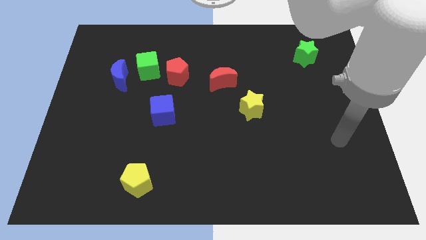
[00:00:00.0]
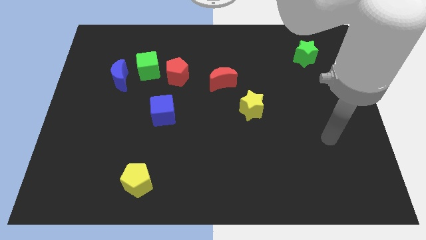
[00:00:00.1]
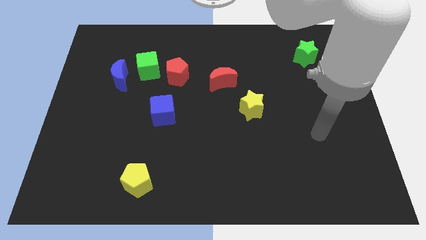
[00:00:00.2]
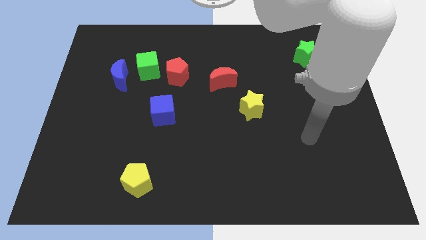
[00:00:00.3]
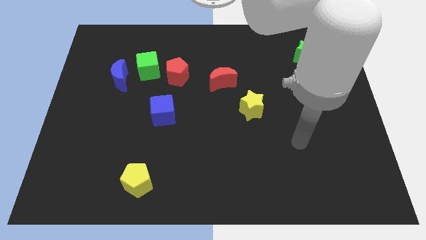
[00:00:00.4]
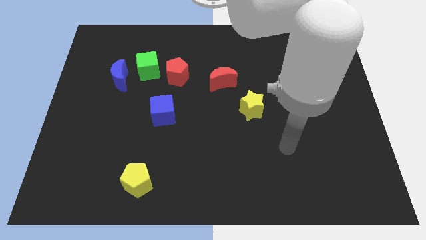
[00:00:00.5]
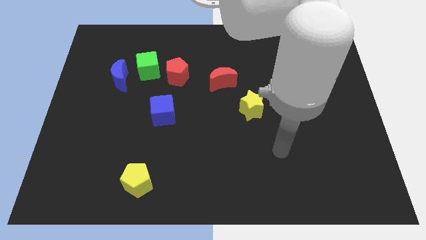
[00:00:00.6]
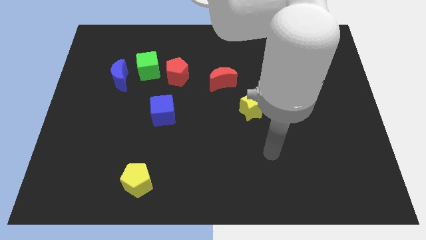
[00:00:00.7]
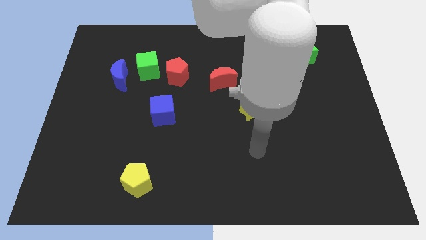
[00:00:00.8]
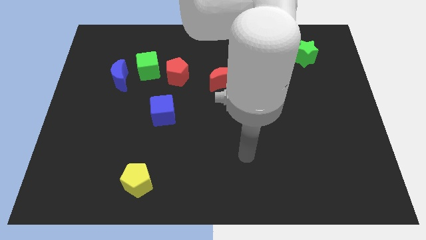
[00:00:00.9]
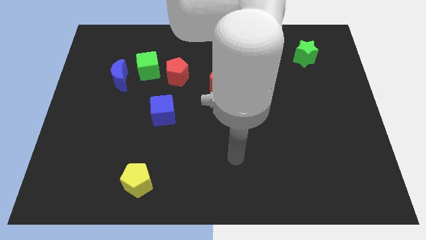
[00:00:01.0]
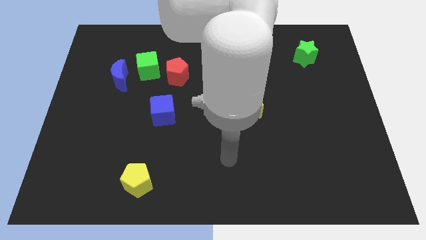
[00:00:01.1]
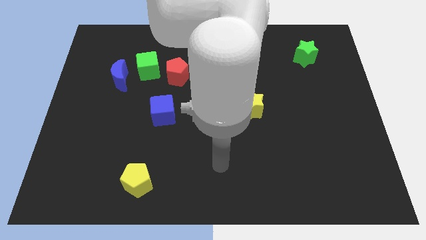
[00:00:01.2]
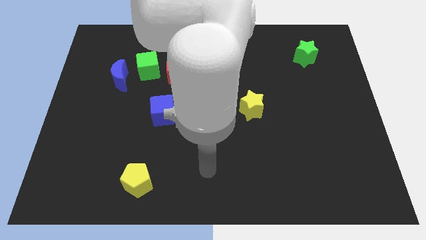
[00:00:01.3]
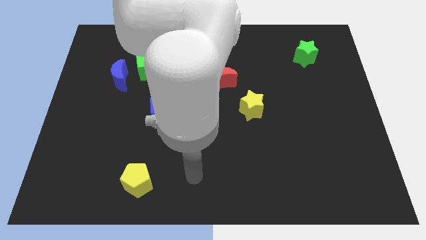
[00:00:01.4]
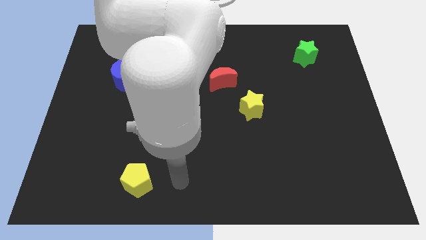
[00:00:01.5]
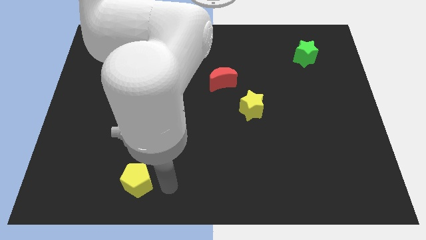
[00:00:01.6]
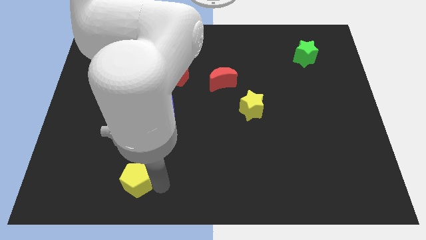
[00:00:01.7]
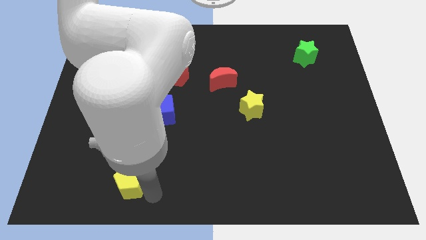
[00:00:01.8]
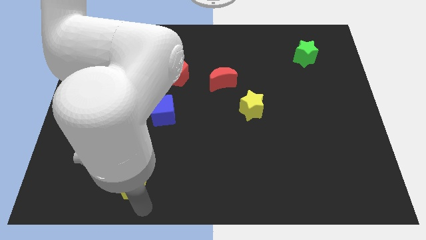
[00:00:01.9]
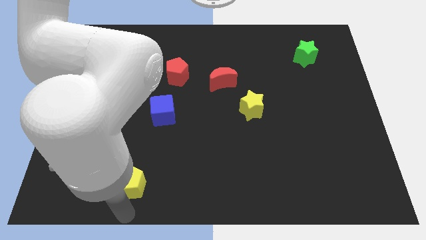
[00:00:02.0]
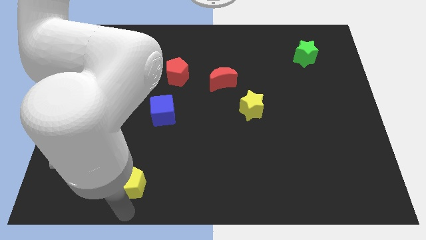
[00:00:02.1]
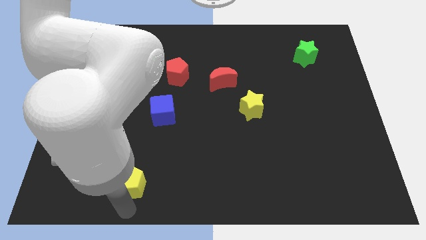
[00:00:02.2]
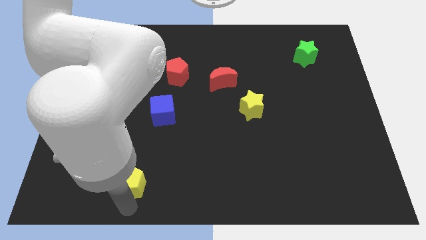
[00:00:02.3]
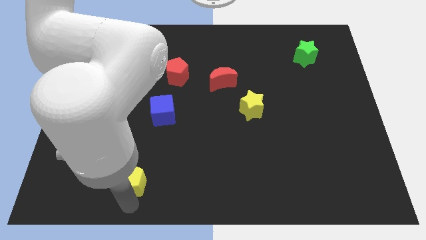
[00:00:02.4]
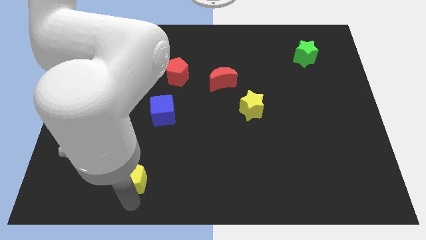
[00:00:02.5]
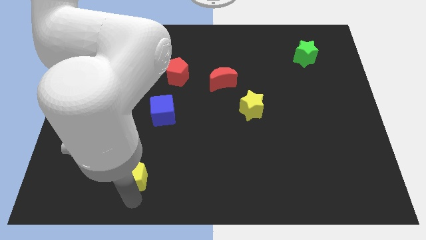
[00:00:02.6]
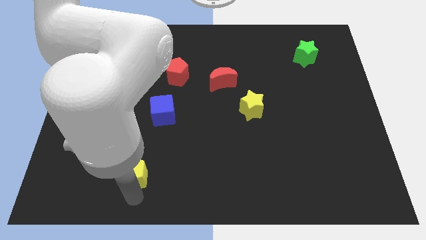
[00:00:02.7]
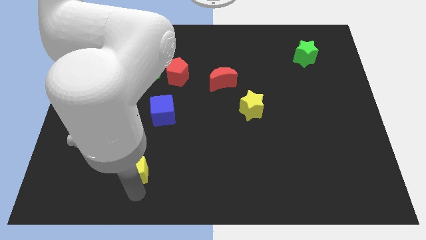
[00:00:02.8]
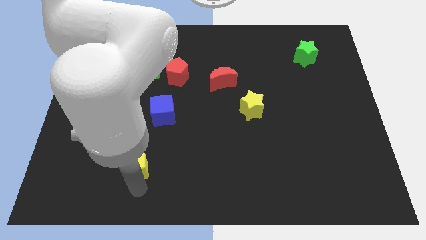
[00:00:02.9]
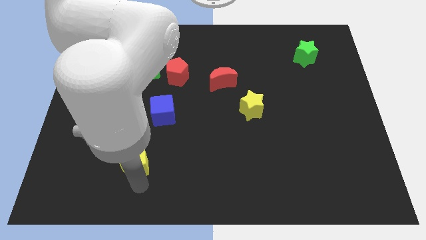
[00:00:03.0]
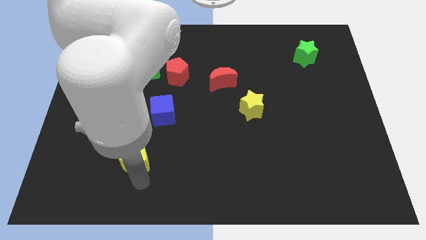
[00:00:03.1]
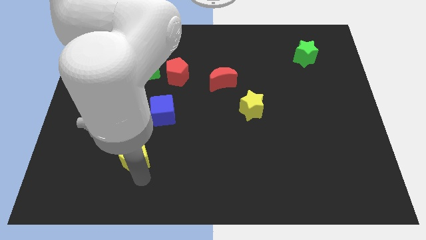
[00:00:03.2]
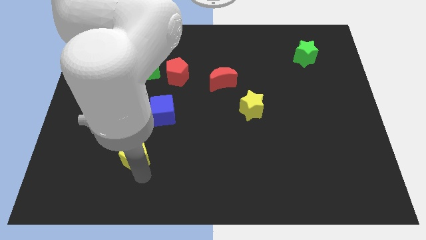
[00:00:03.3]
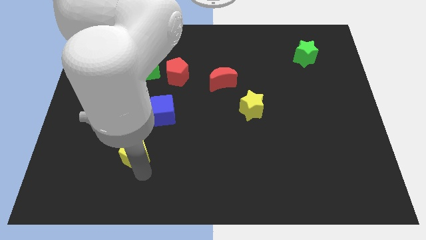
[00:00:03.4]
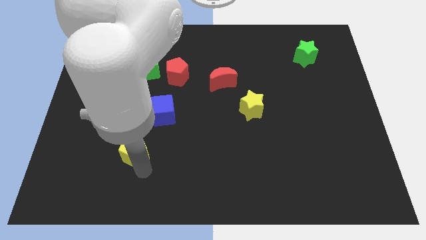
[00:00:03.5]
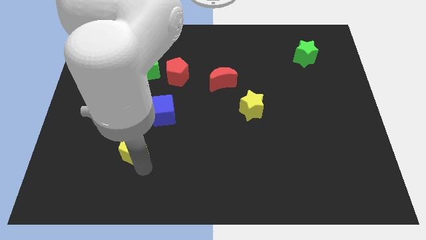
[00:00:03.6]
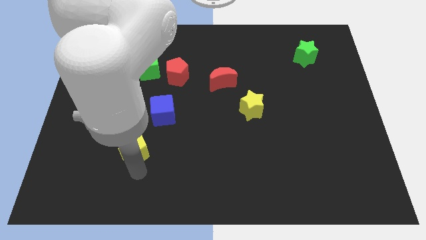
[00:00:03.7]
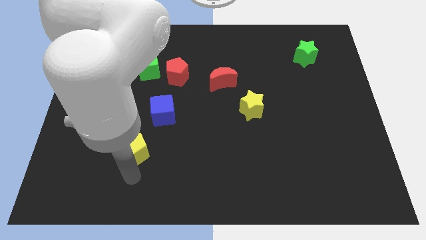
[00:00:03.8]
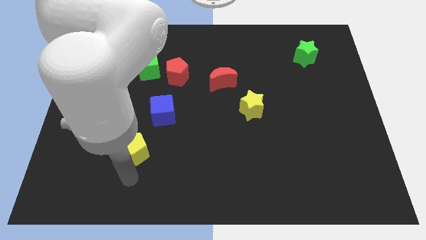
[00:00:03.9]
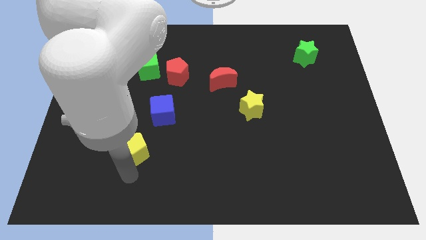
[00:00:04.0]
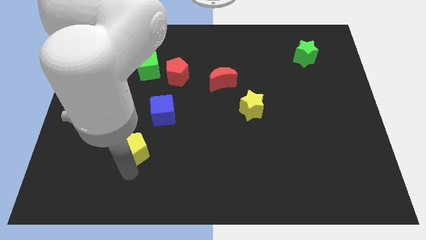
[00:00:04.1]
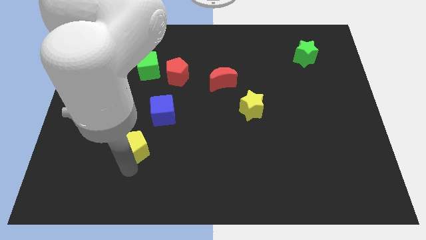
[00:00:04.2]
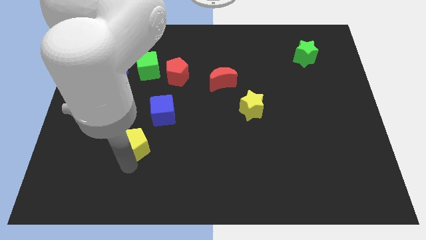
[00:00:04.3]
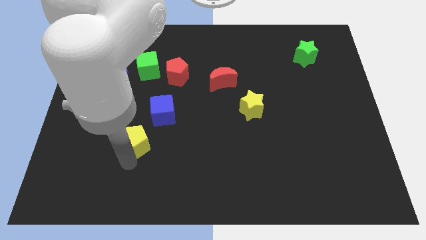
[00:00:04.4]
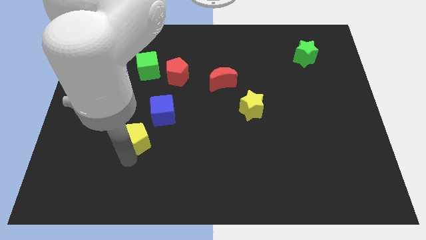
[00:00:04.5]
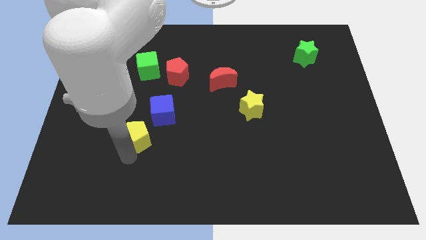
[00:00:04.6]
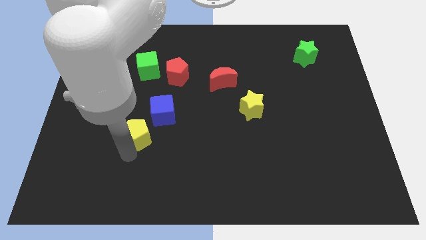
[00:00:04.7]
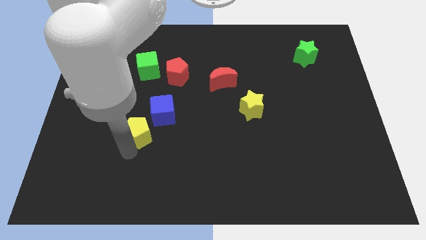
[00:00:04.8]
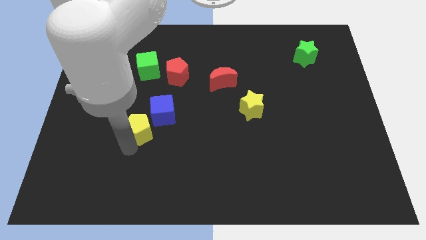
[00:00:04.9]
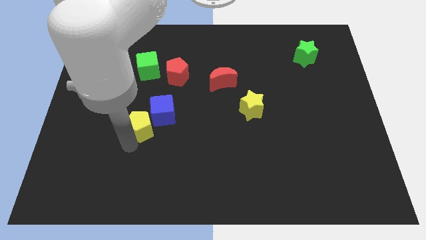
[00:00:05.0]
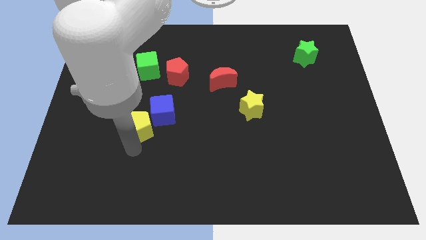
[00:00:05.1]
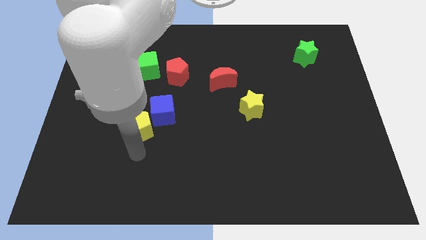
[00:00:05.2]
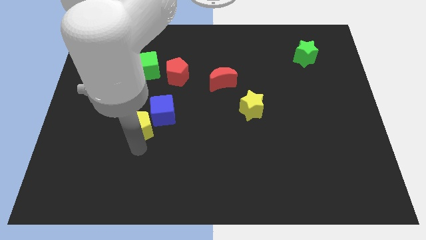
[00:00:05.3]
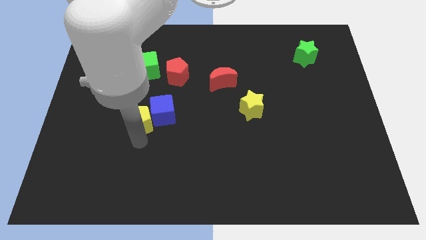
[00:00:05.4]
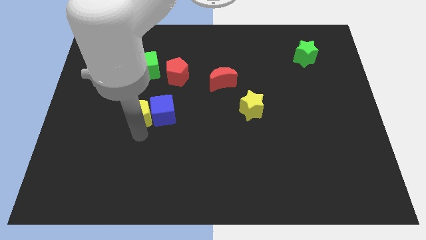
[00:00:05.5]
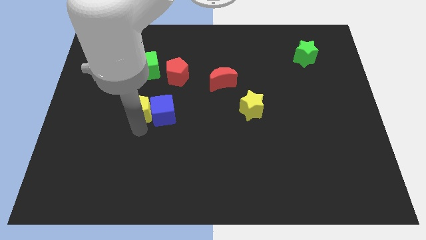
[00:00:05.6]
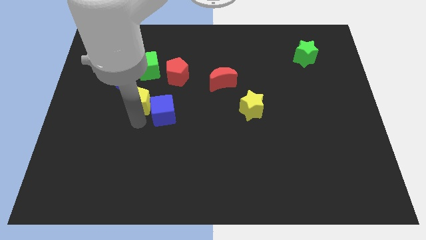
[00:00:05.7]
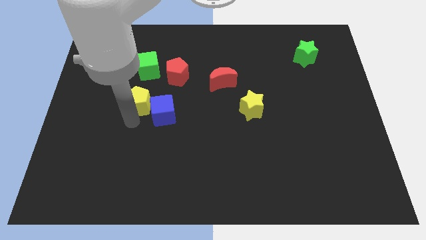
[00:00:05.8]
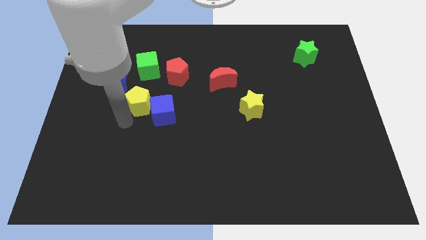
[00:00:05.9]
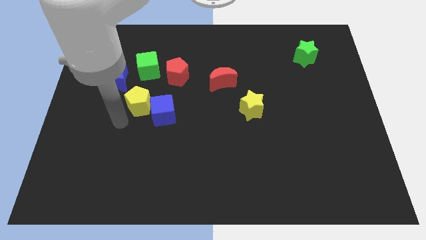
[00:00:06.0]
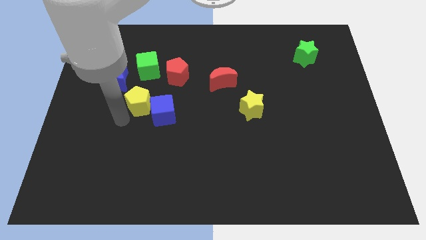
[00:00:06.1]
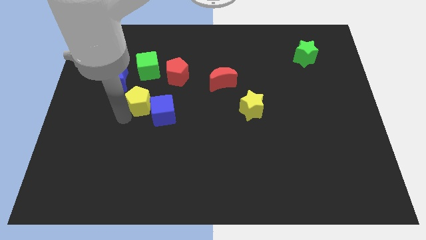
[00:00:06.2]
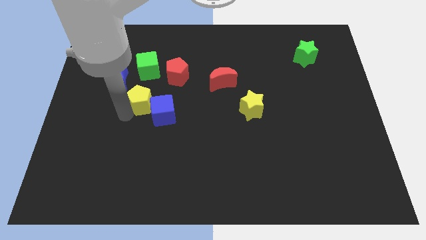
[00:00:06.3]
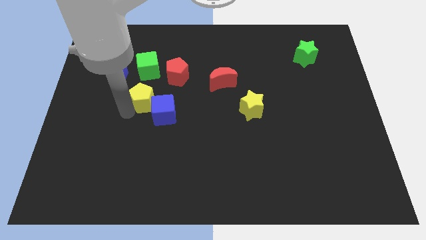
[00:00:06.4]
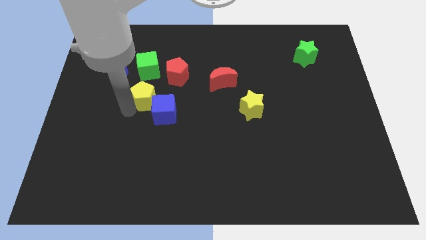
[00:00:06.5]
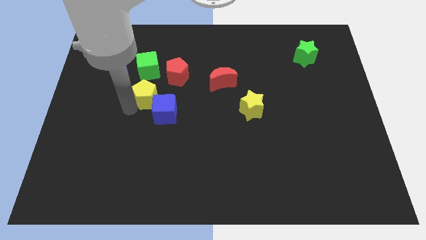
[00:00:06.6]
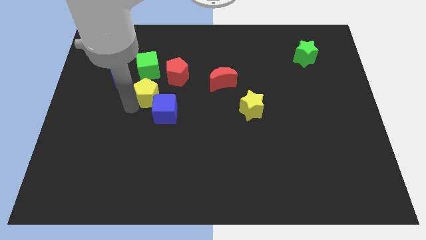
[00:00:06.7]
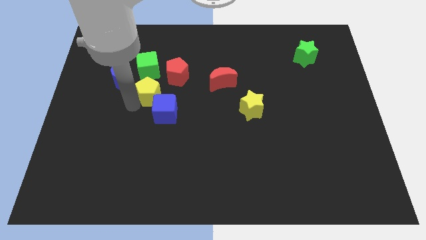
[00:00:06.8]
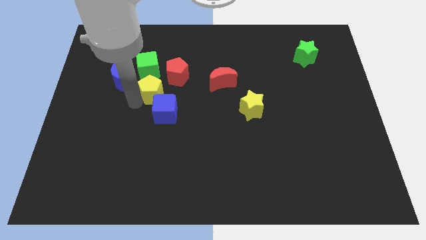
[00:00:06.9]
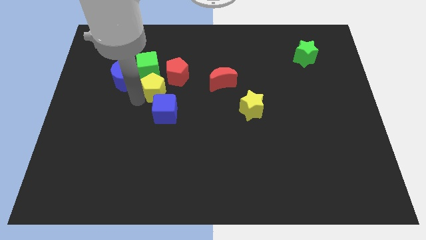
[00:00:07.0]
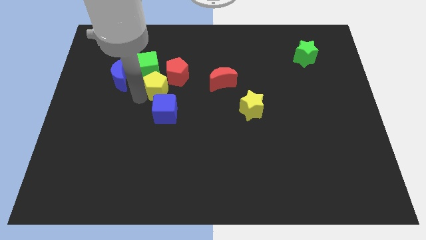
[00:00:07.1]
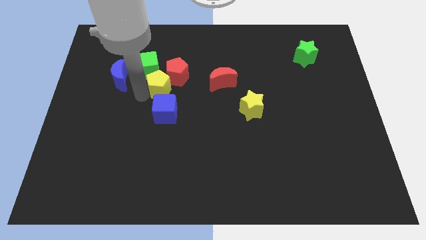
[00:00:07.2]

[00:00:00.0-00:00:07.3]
put the yellow pentagon next to the red pentagon
